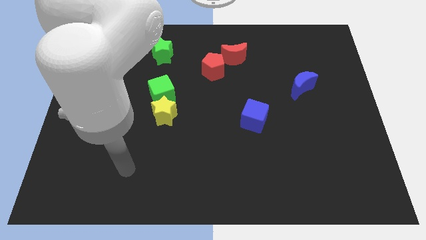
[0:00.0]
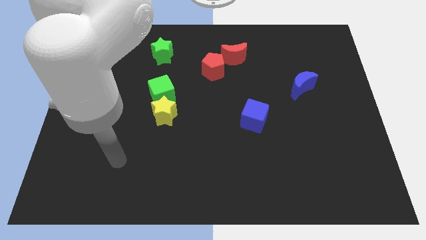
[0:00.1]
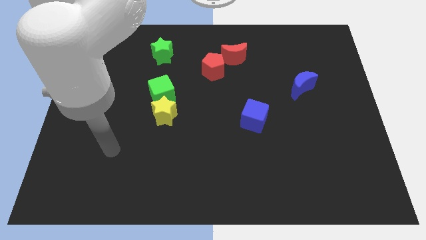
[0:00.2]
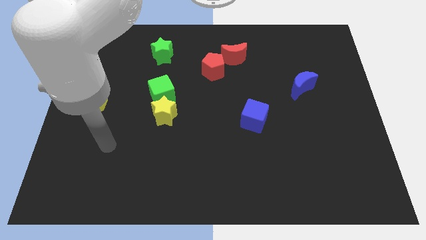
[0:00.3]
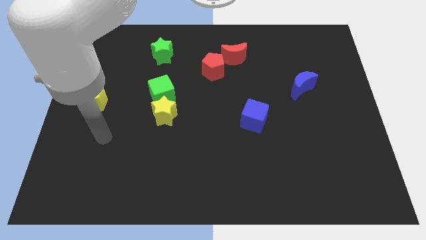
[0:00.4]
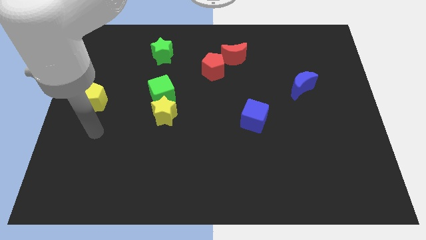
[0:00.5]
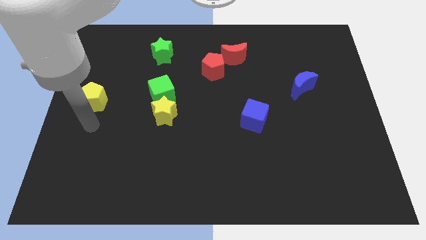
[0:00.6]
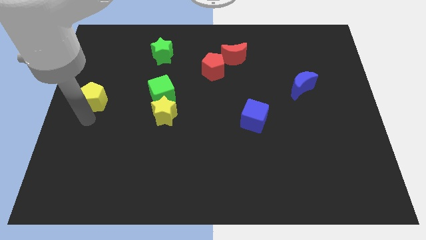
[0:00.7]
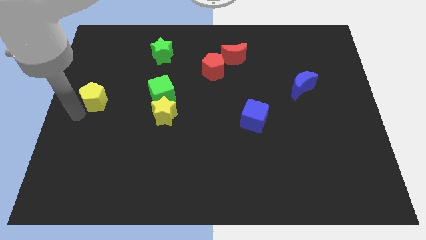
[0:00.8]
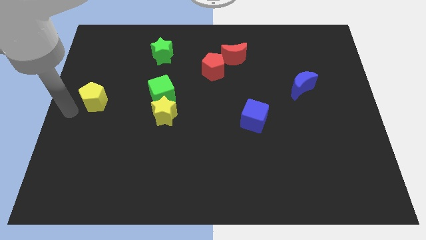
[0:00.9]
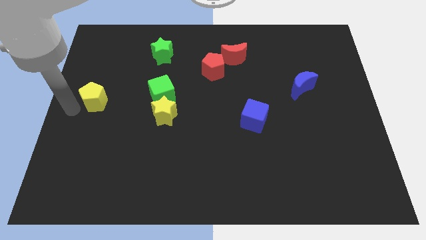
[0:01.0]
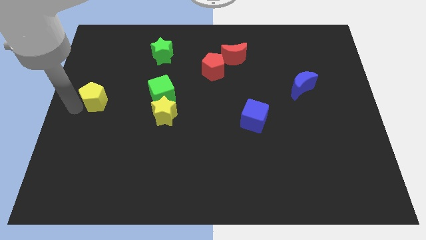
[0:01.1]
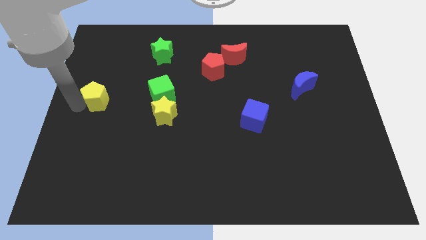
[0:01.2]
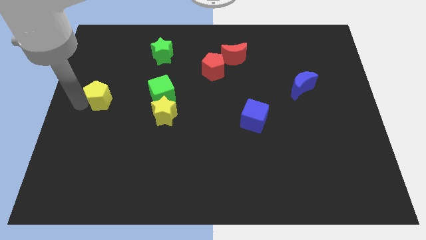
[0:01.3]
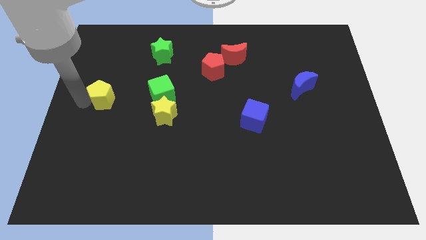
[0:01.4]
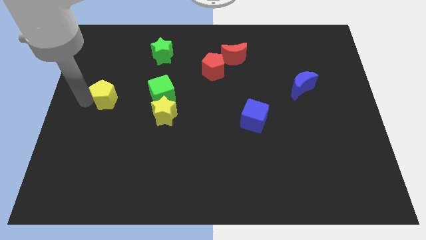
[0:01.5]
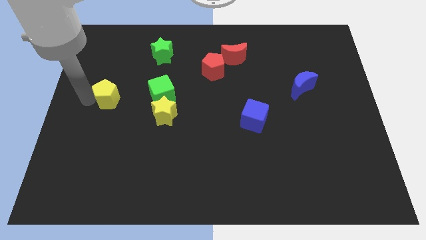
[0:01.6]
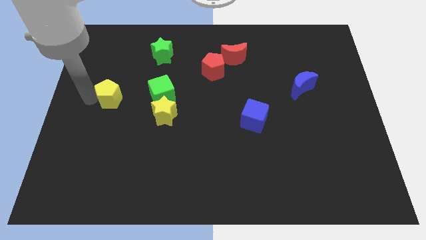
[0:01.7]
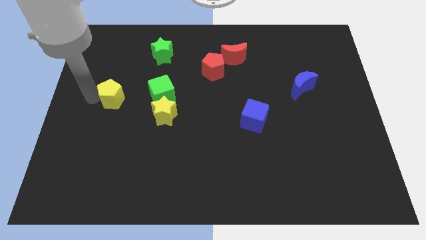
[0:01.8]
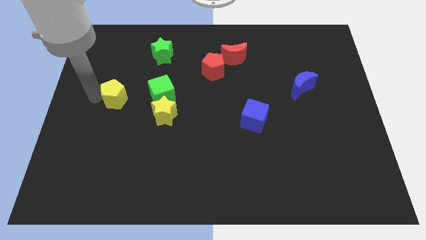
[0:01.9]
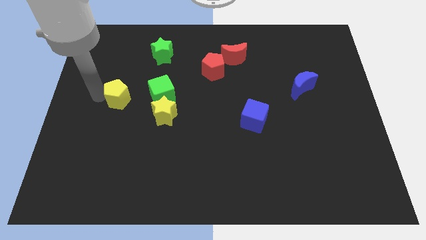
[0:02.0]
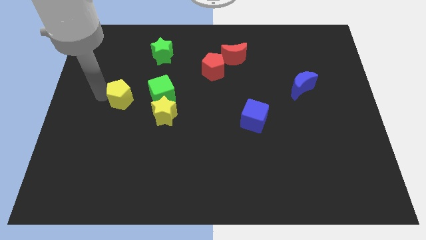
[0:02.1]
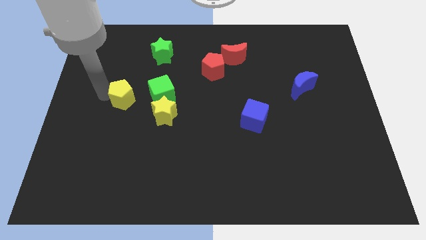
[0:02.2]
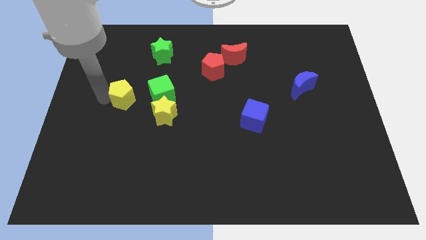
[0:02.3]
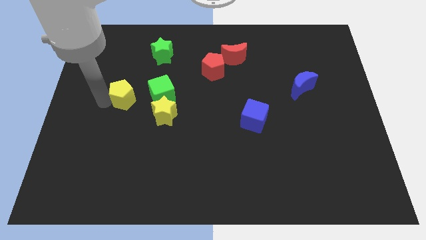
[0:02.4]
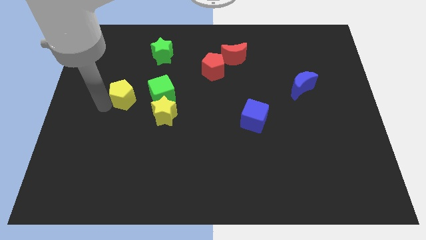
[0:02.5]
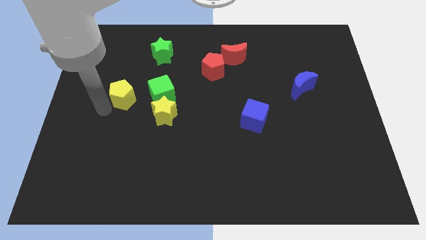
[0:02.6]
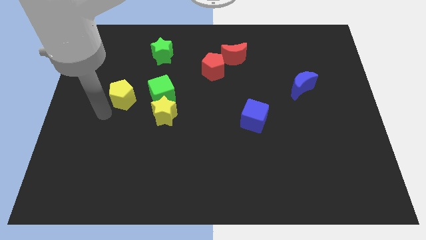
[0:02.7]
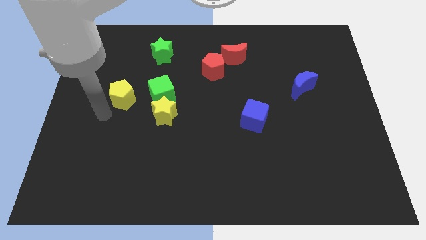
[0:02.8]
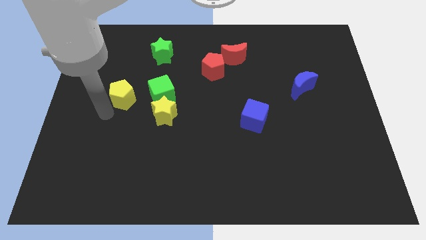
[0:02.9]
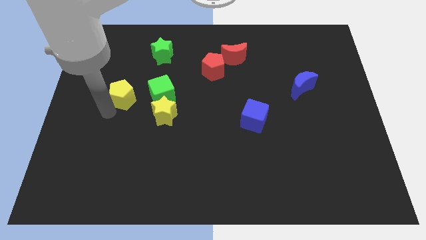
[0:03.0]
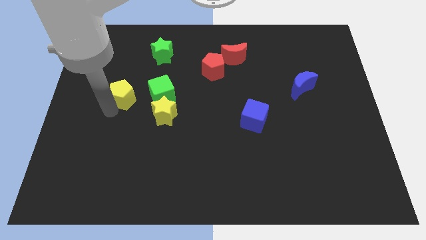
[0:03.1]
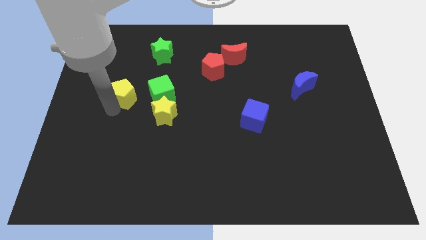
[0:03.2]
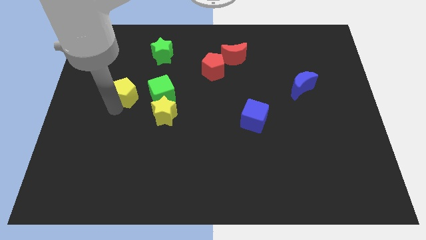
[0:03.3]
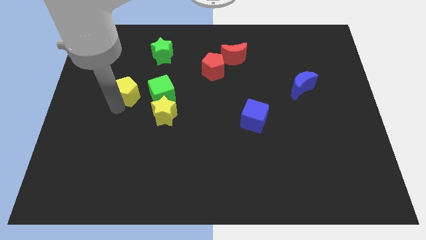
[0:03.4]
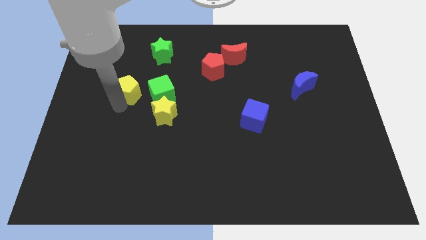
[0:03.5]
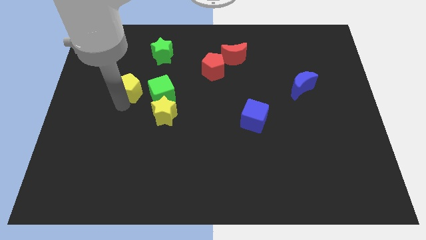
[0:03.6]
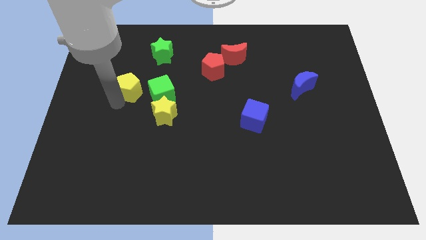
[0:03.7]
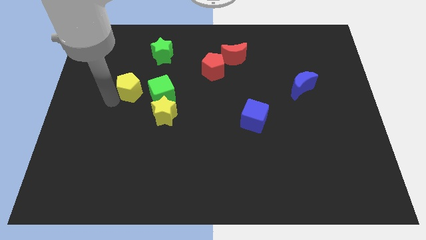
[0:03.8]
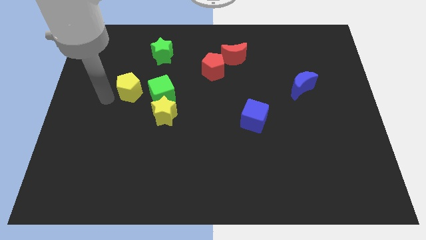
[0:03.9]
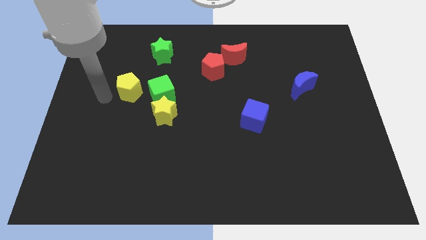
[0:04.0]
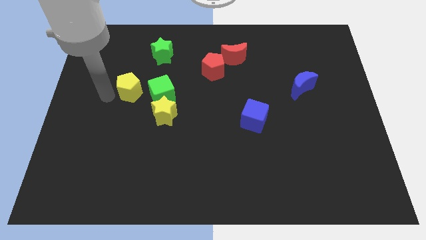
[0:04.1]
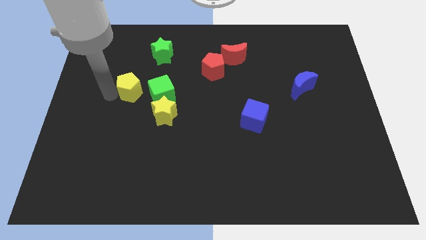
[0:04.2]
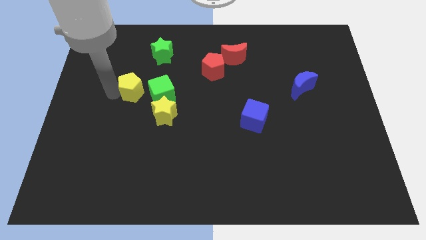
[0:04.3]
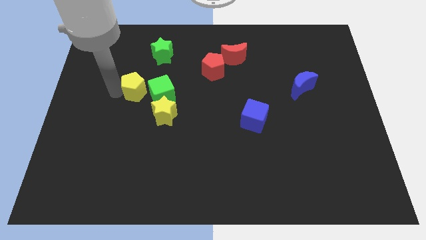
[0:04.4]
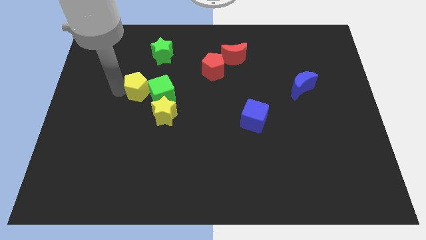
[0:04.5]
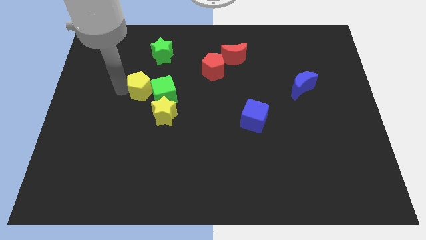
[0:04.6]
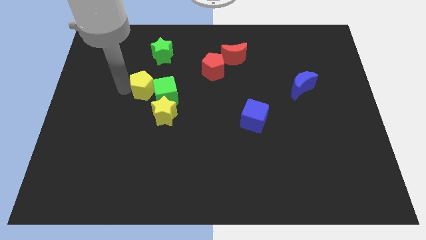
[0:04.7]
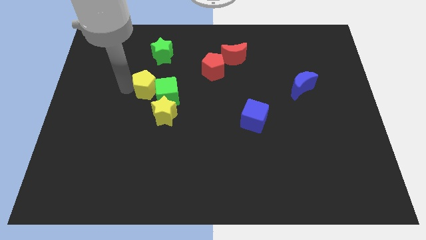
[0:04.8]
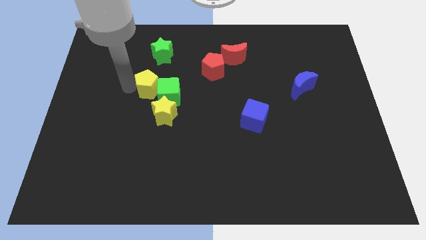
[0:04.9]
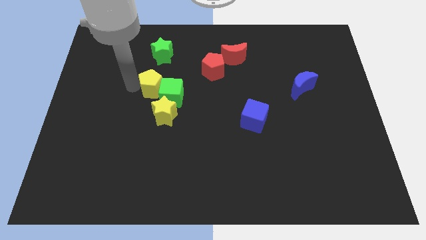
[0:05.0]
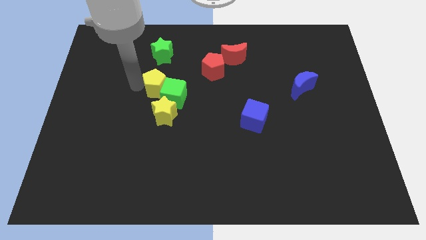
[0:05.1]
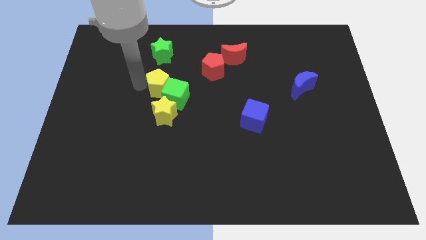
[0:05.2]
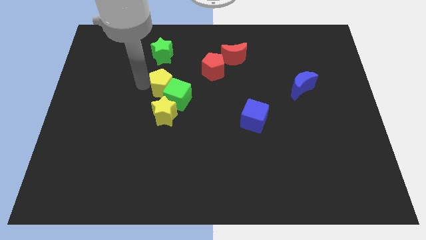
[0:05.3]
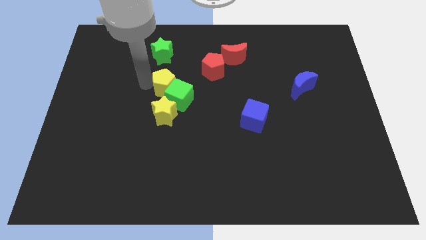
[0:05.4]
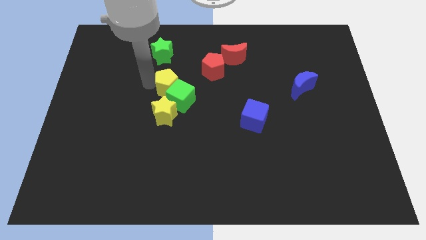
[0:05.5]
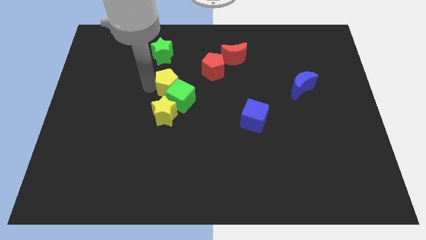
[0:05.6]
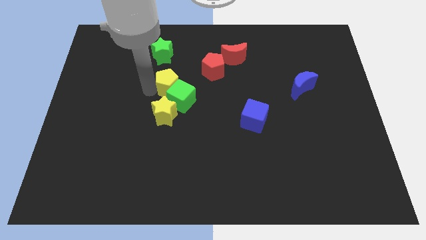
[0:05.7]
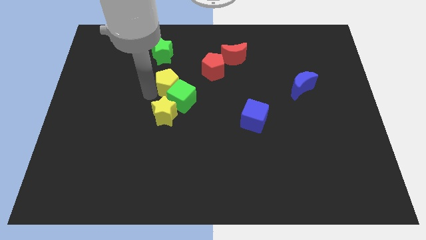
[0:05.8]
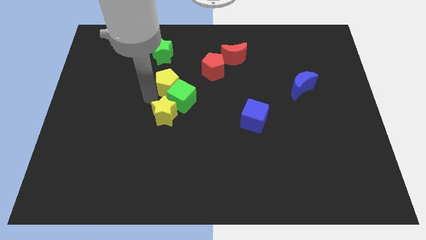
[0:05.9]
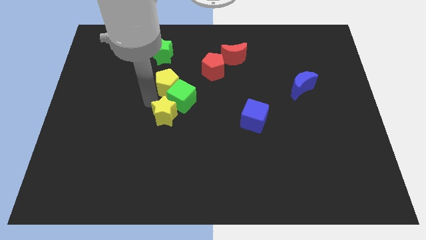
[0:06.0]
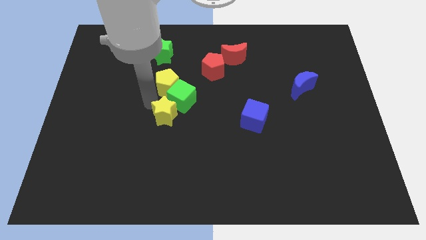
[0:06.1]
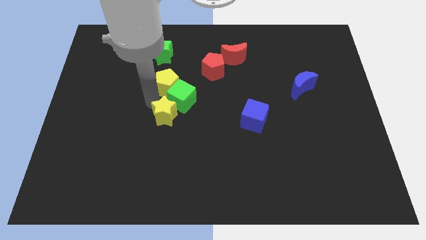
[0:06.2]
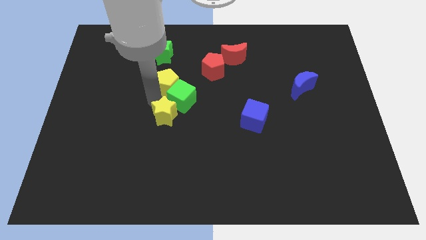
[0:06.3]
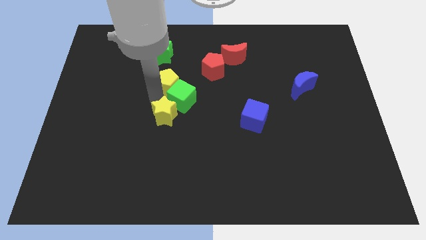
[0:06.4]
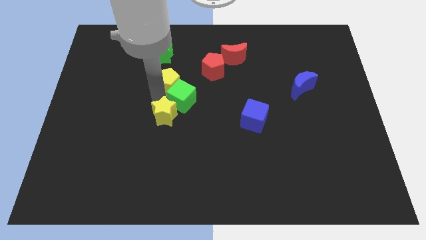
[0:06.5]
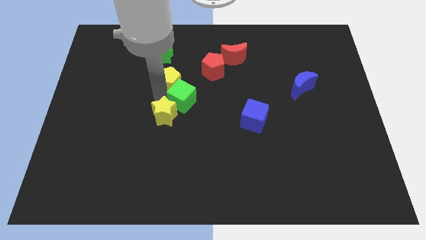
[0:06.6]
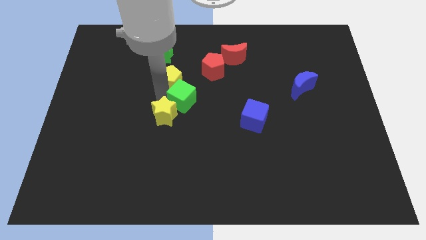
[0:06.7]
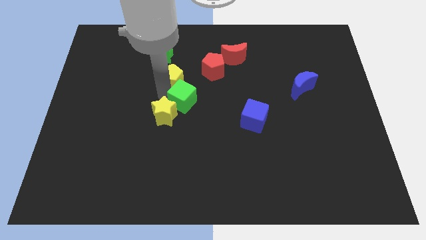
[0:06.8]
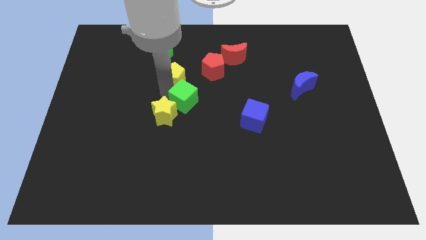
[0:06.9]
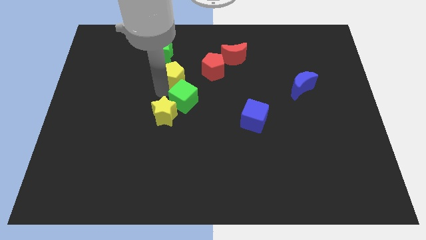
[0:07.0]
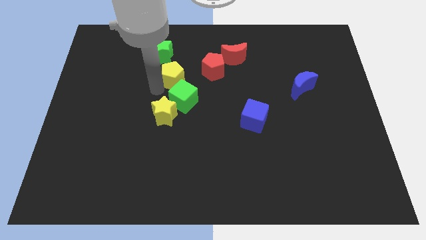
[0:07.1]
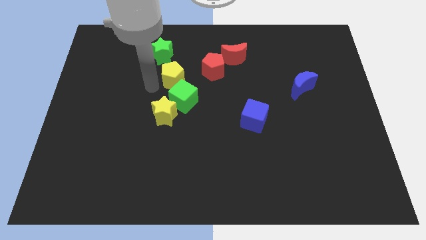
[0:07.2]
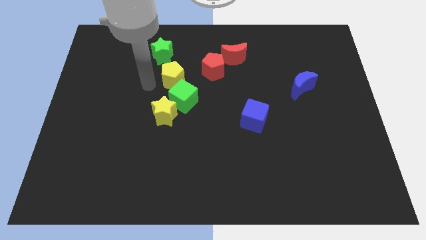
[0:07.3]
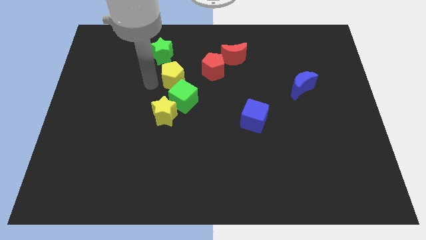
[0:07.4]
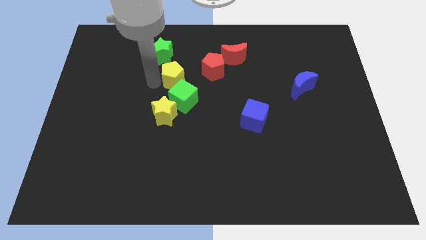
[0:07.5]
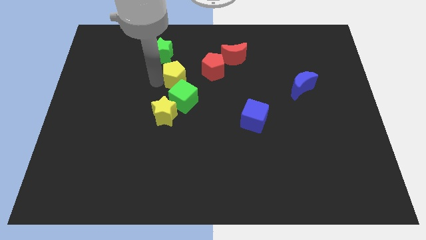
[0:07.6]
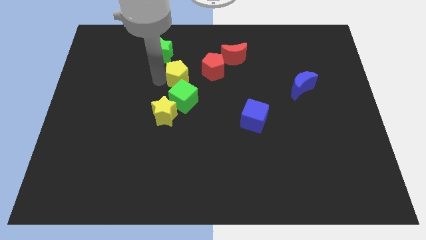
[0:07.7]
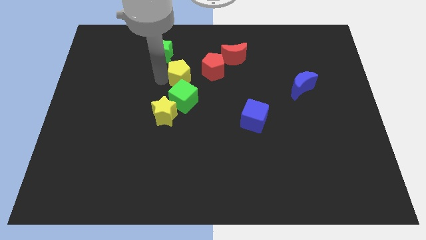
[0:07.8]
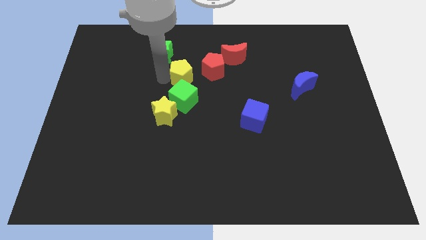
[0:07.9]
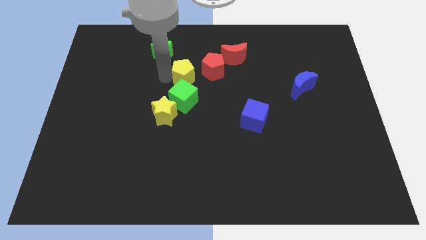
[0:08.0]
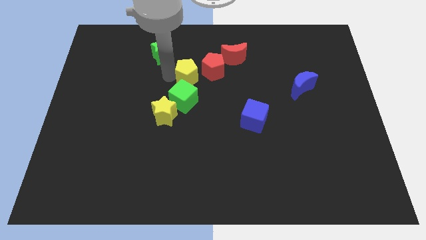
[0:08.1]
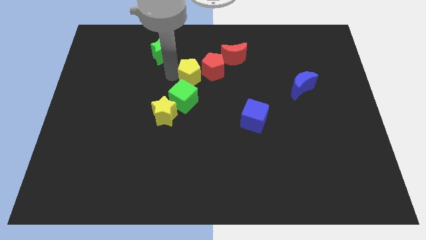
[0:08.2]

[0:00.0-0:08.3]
put the yellow pentagon next to the red pentagon

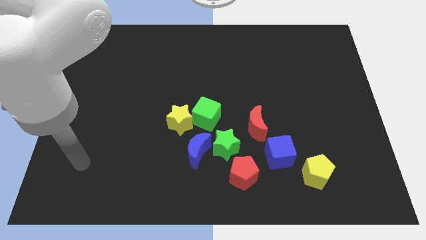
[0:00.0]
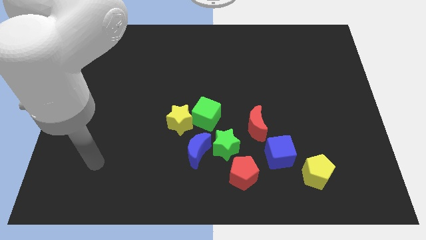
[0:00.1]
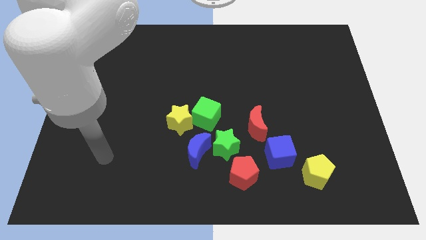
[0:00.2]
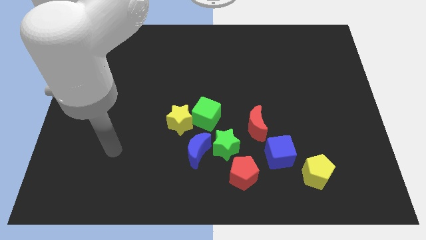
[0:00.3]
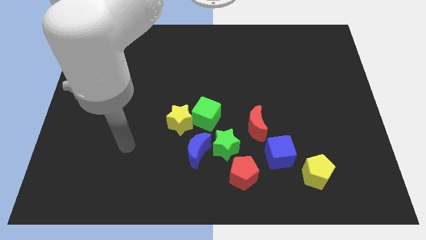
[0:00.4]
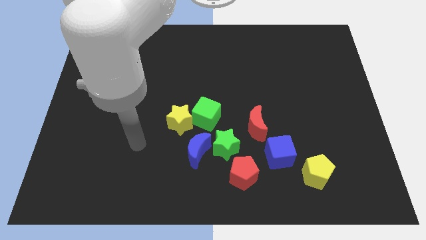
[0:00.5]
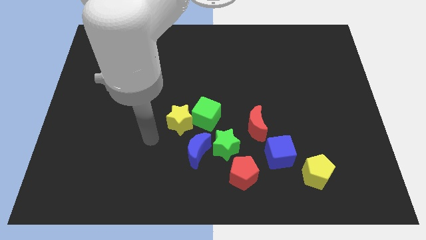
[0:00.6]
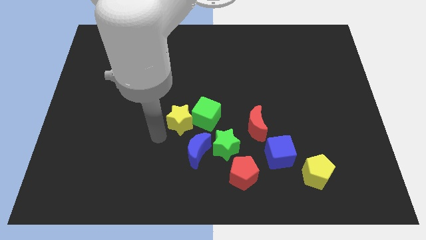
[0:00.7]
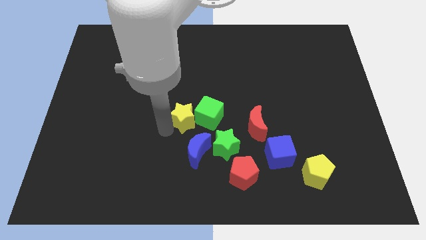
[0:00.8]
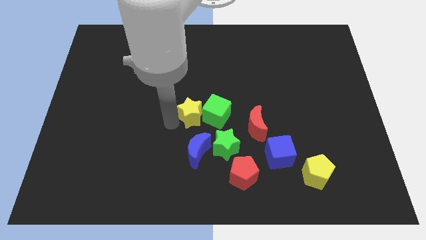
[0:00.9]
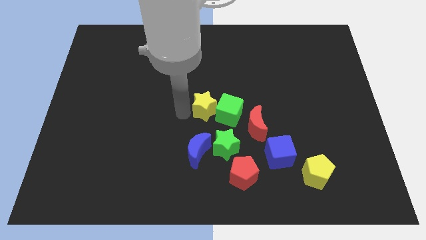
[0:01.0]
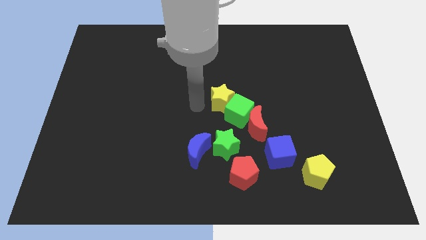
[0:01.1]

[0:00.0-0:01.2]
slide the green cube close to the red moon
